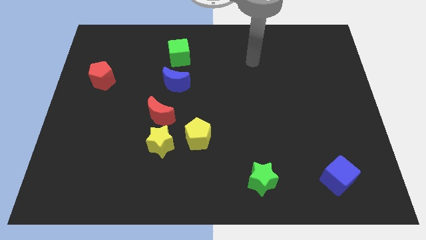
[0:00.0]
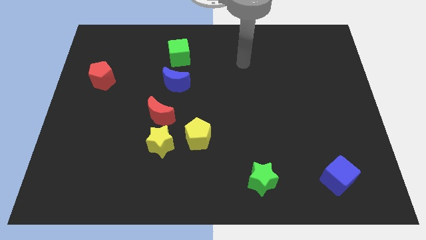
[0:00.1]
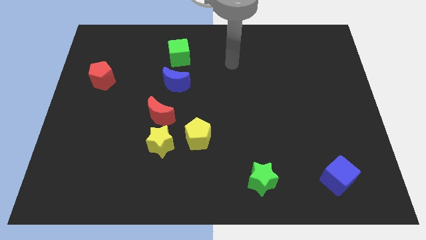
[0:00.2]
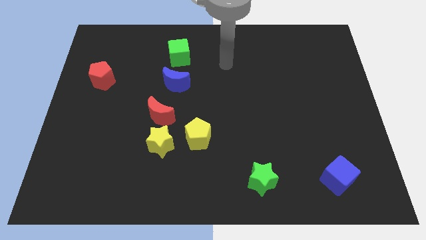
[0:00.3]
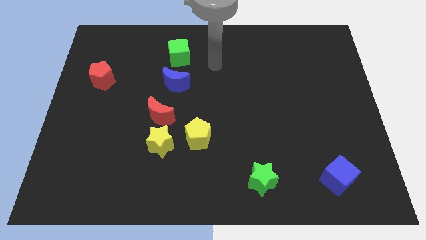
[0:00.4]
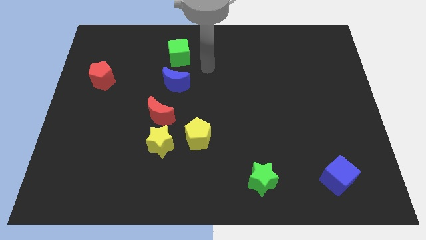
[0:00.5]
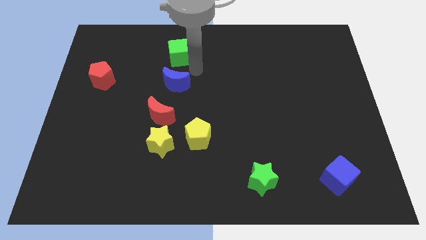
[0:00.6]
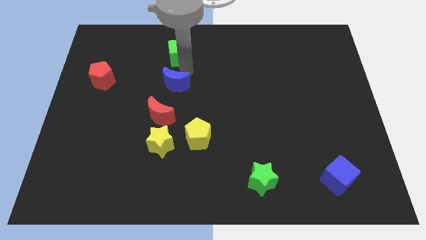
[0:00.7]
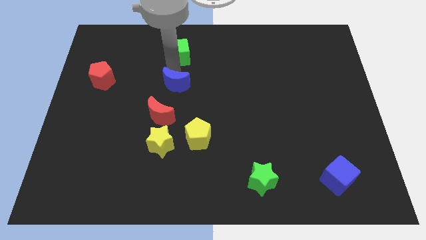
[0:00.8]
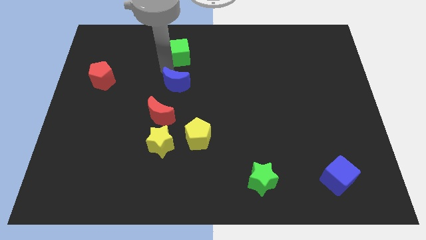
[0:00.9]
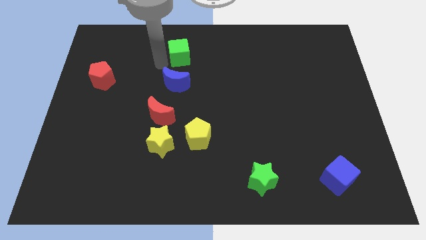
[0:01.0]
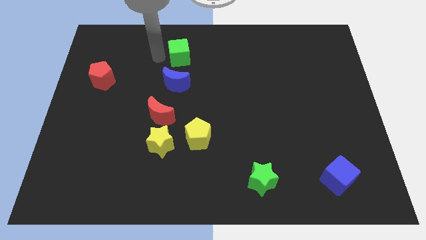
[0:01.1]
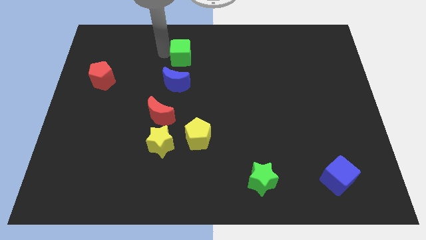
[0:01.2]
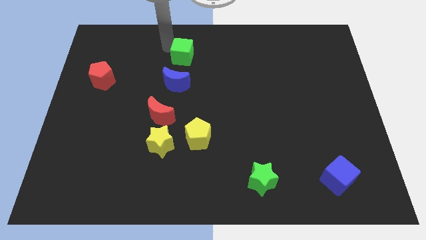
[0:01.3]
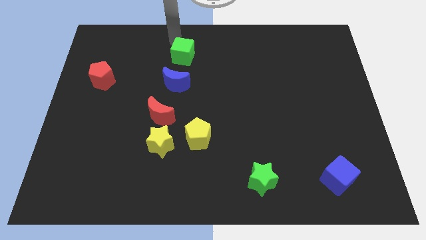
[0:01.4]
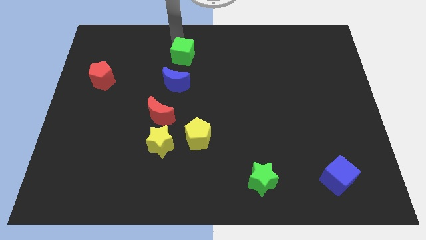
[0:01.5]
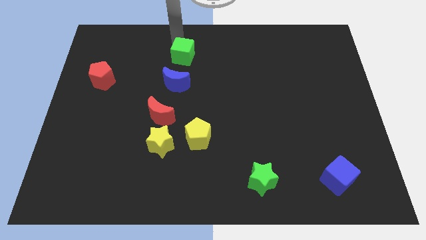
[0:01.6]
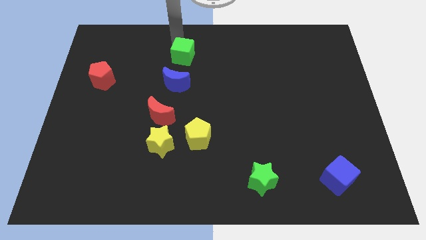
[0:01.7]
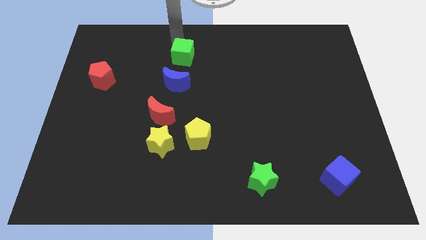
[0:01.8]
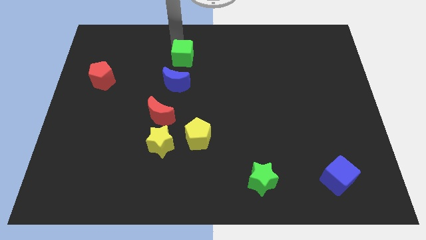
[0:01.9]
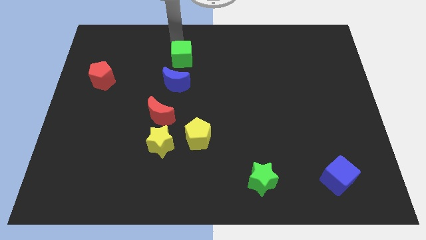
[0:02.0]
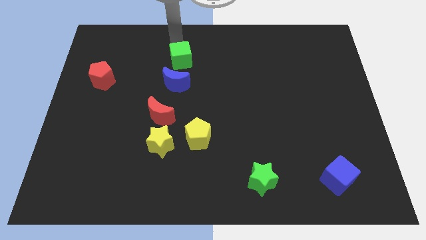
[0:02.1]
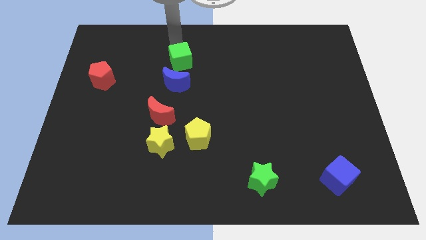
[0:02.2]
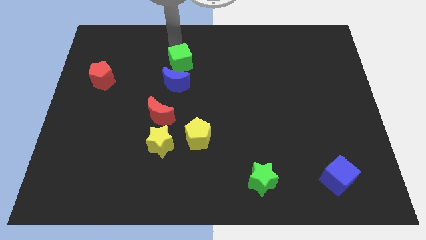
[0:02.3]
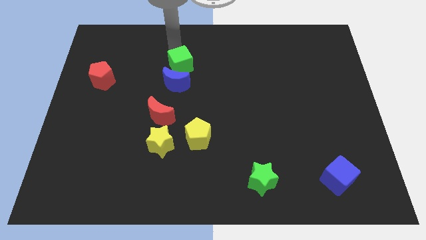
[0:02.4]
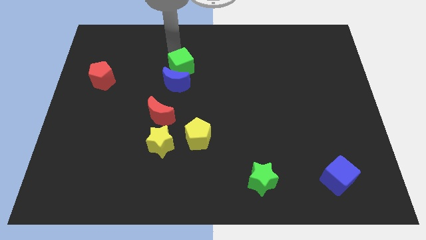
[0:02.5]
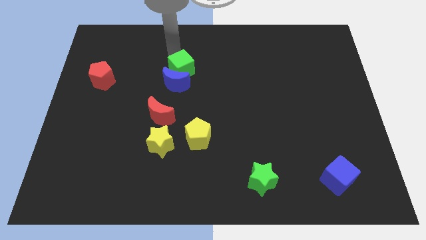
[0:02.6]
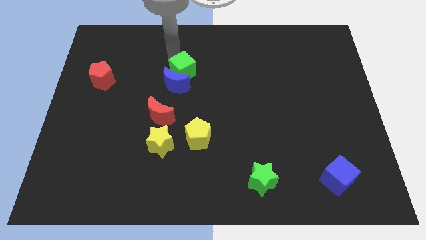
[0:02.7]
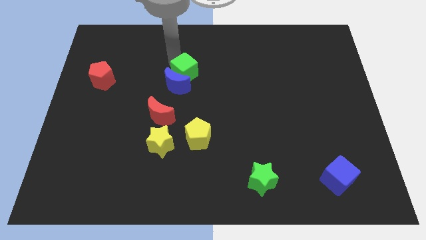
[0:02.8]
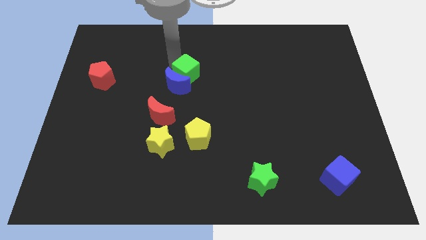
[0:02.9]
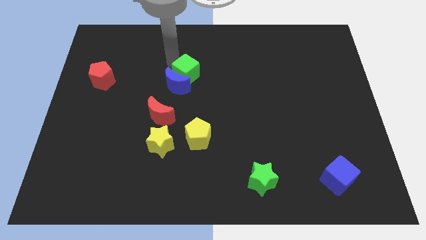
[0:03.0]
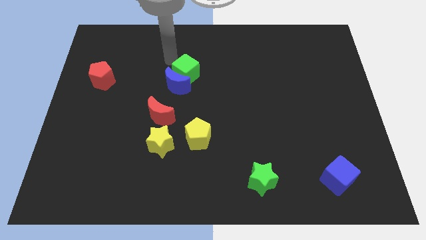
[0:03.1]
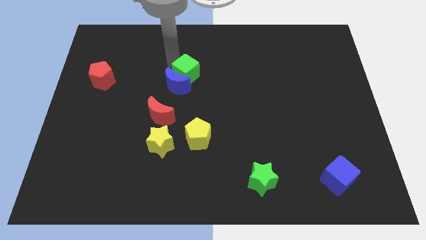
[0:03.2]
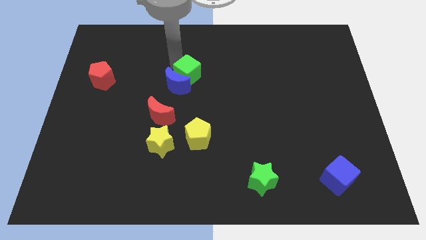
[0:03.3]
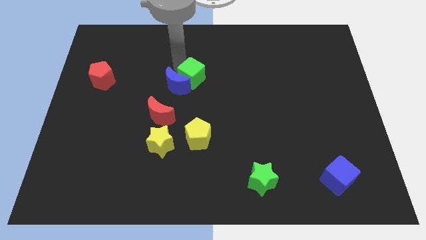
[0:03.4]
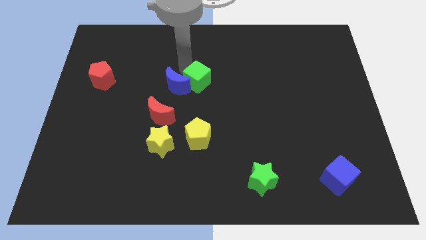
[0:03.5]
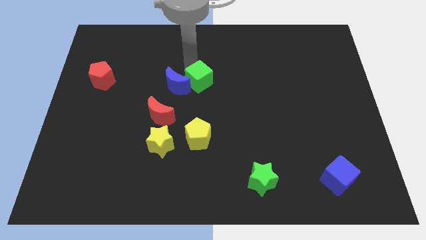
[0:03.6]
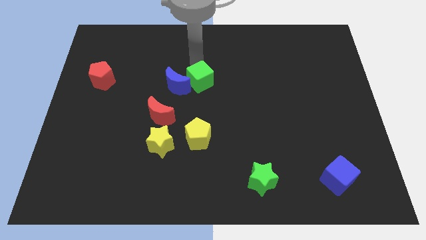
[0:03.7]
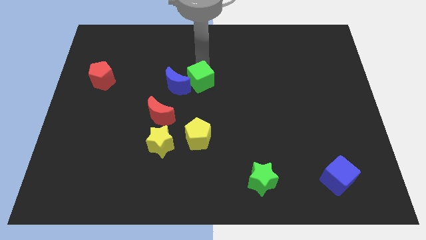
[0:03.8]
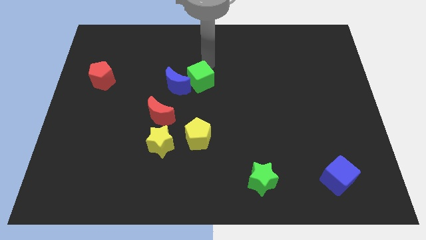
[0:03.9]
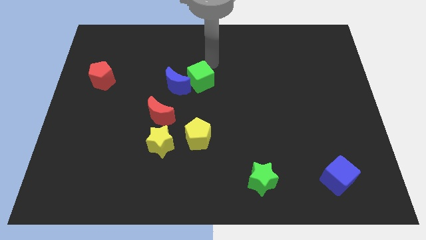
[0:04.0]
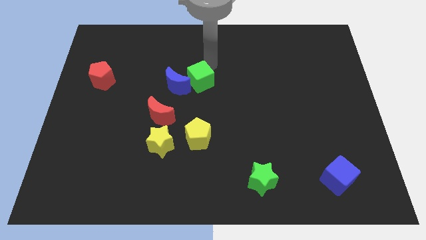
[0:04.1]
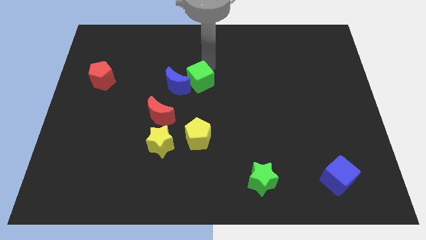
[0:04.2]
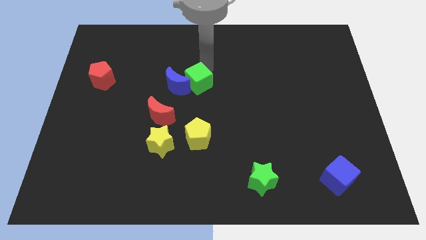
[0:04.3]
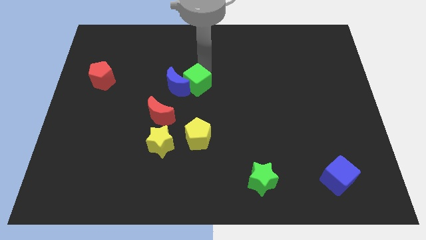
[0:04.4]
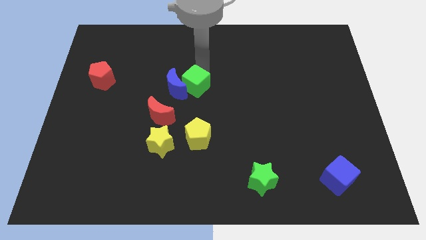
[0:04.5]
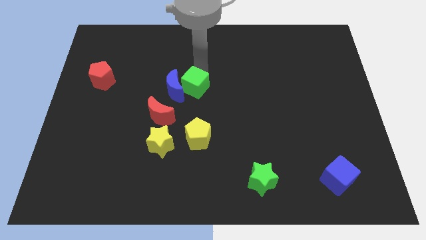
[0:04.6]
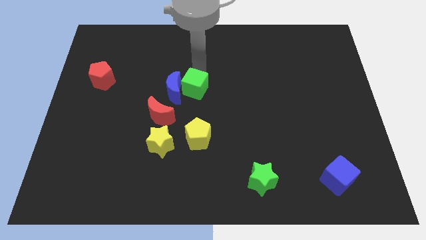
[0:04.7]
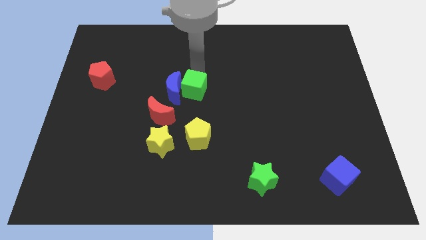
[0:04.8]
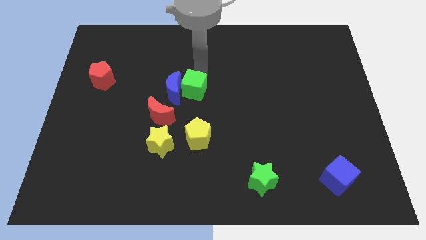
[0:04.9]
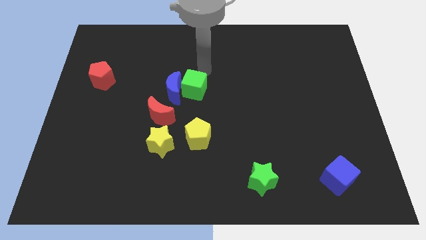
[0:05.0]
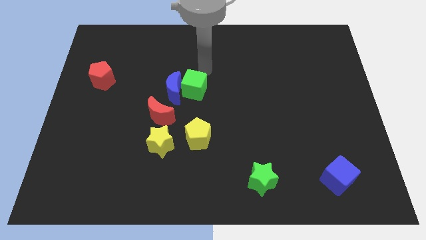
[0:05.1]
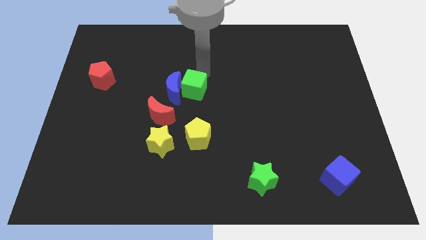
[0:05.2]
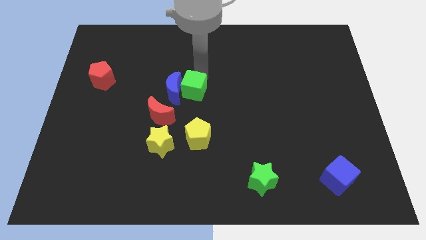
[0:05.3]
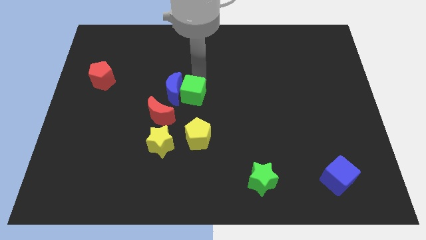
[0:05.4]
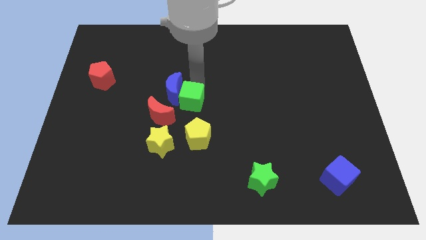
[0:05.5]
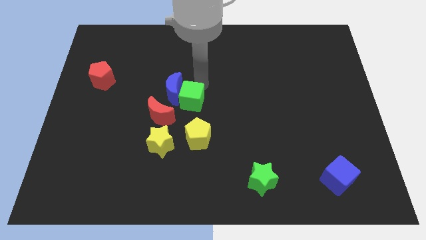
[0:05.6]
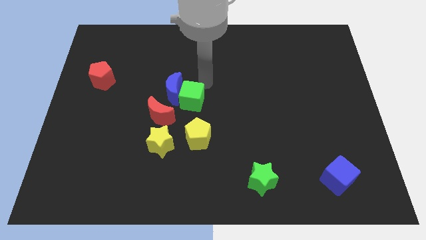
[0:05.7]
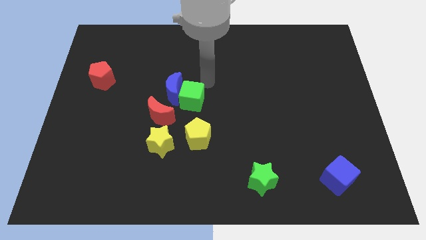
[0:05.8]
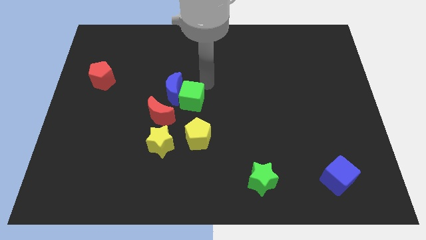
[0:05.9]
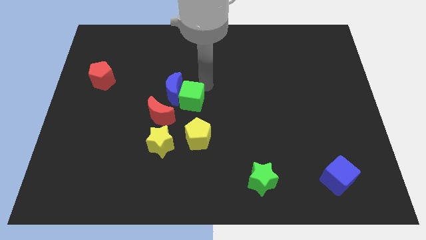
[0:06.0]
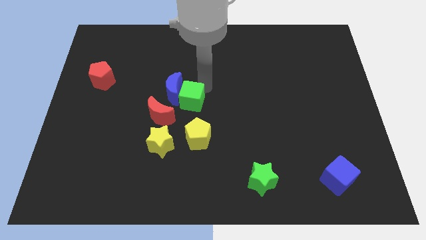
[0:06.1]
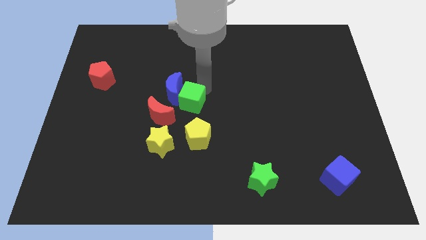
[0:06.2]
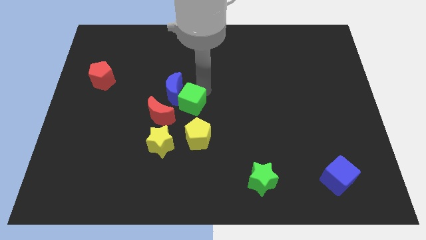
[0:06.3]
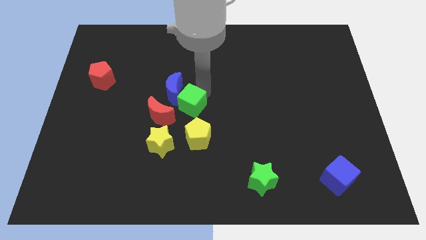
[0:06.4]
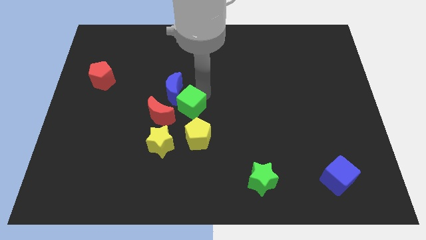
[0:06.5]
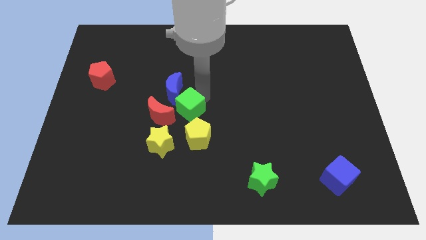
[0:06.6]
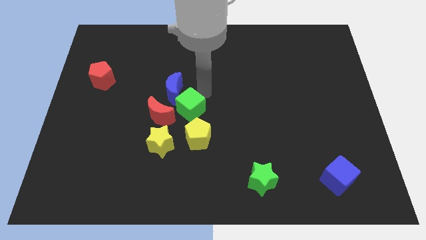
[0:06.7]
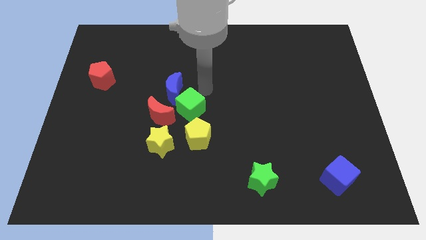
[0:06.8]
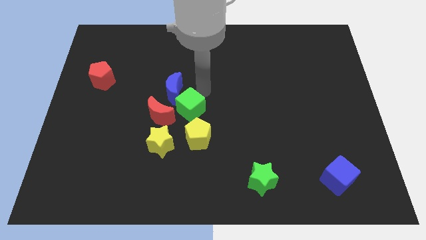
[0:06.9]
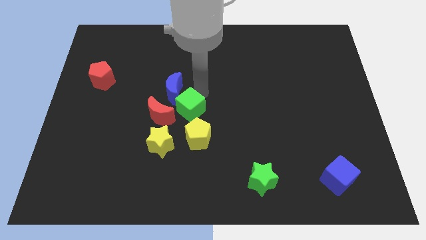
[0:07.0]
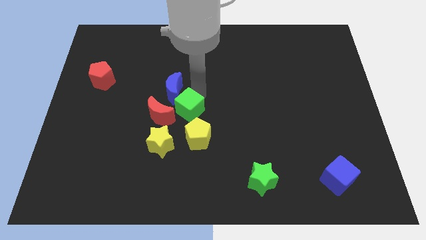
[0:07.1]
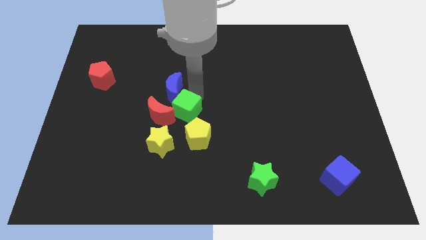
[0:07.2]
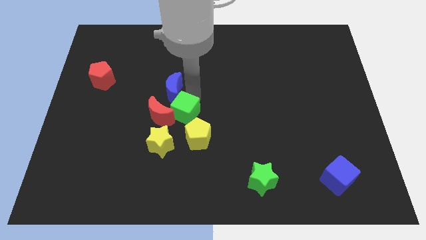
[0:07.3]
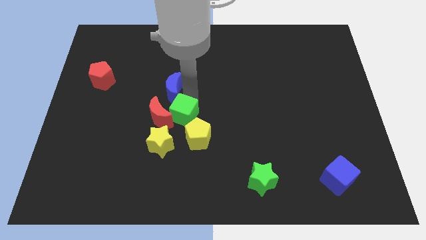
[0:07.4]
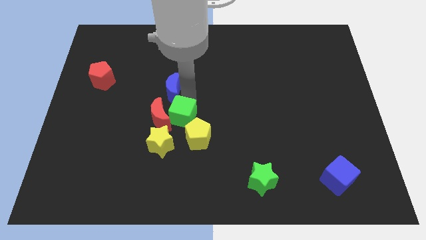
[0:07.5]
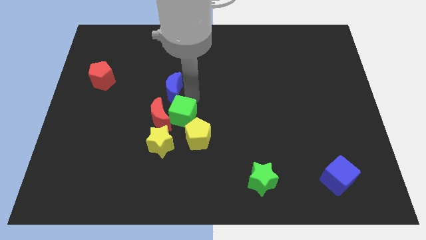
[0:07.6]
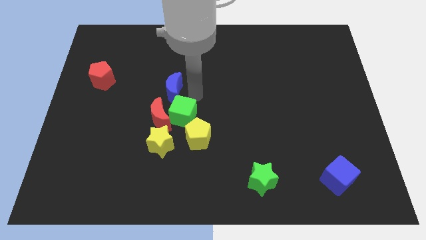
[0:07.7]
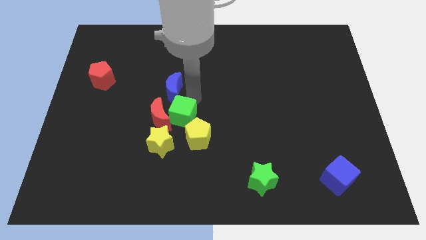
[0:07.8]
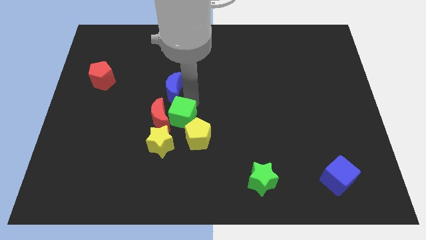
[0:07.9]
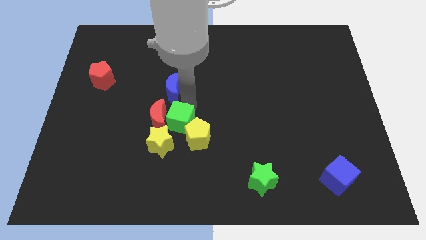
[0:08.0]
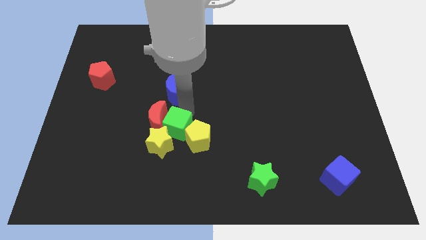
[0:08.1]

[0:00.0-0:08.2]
push the green cube close to the yellow star
